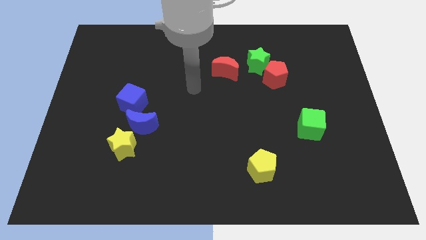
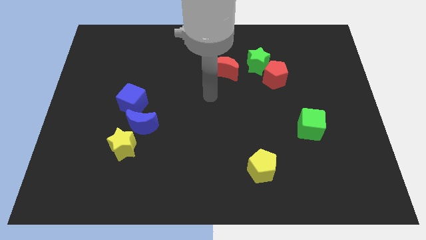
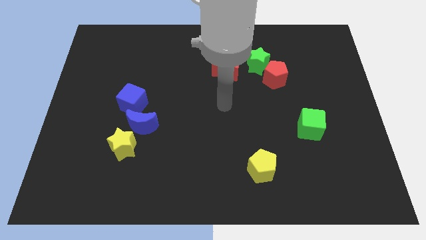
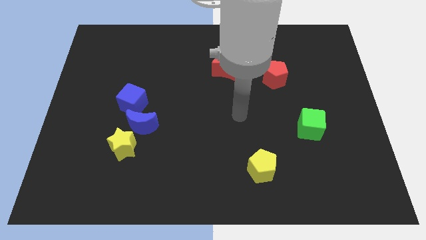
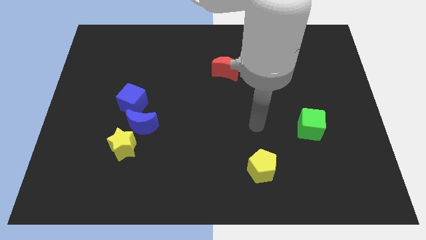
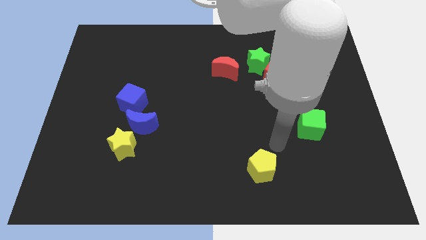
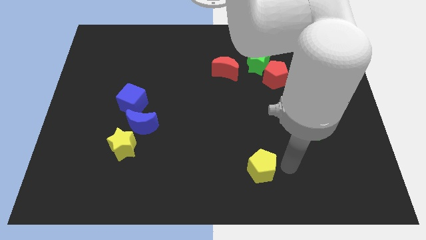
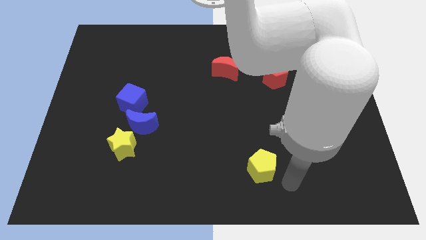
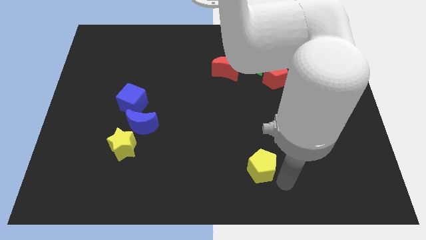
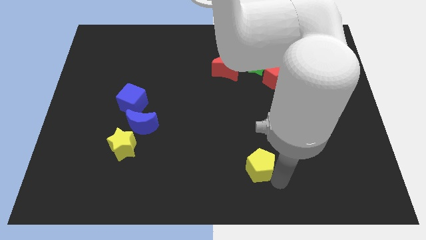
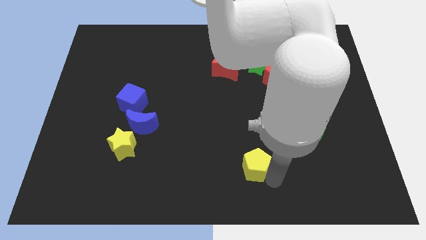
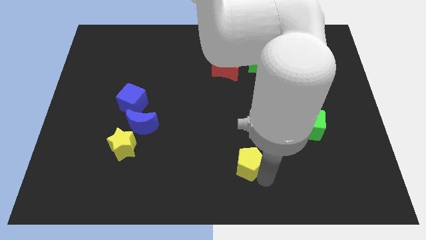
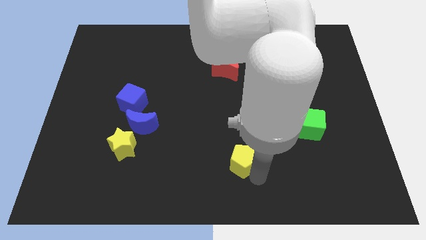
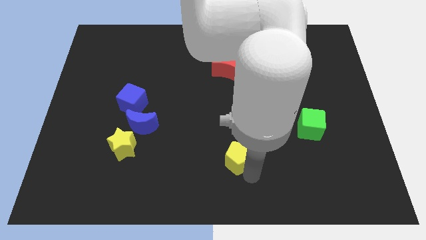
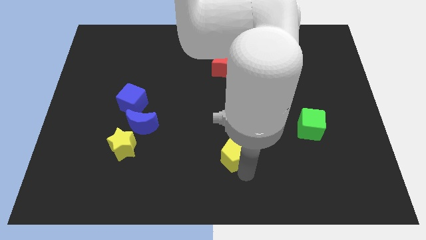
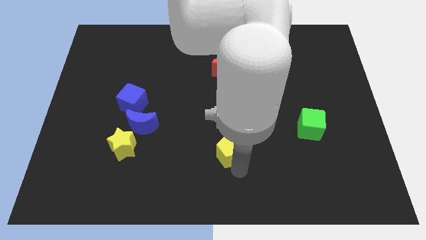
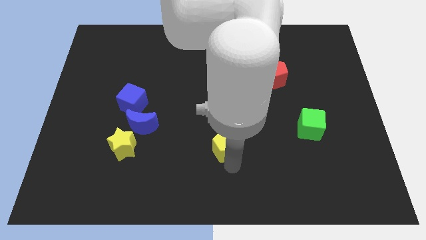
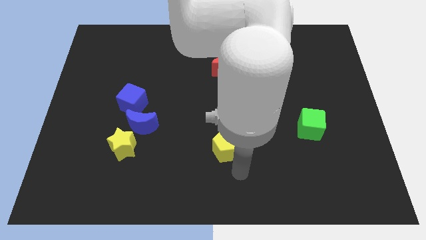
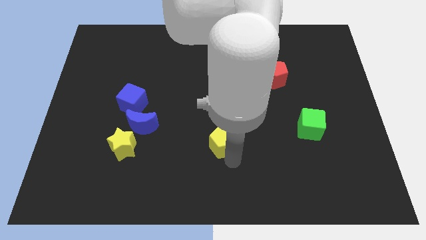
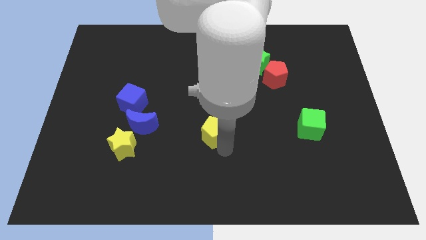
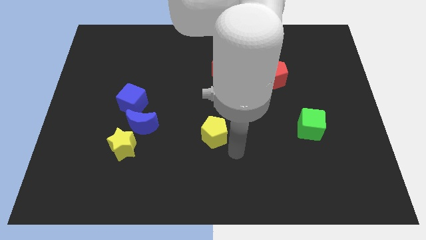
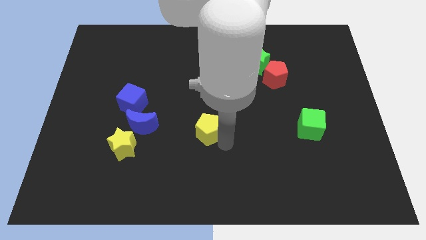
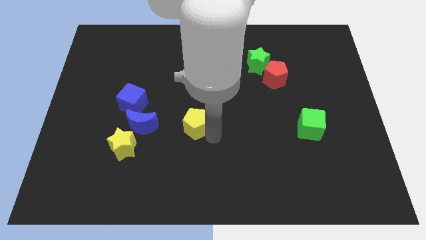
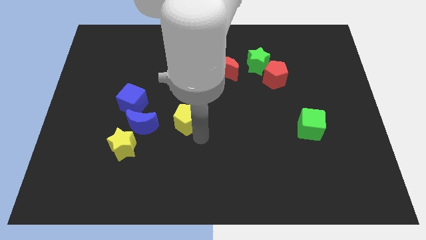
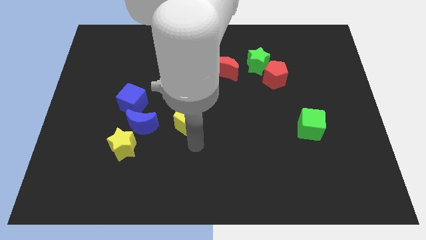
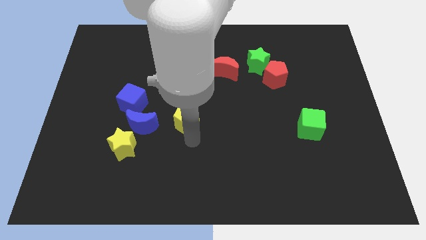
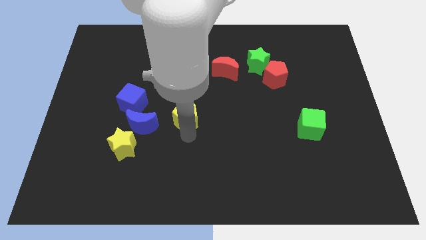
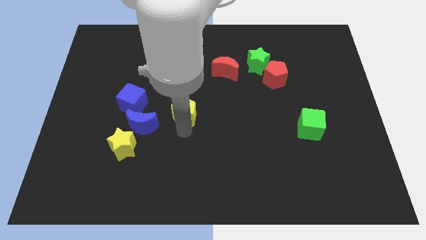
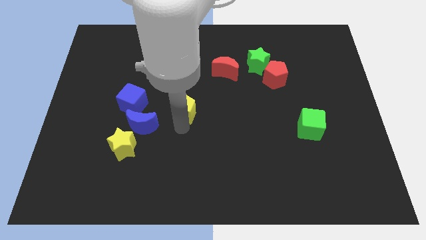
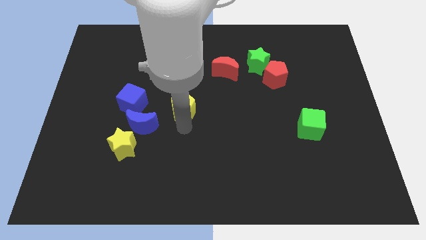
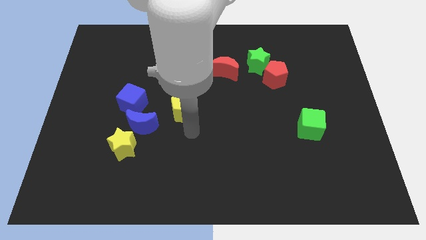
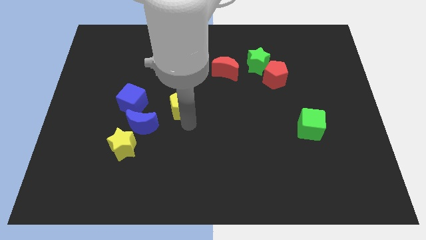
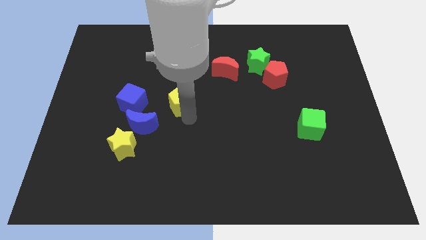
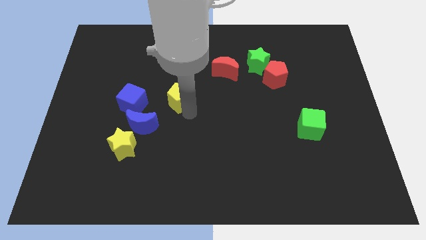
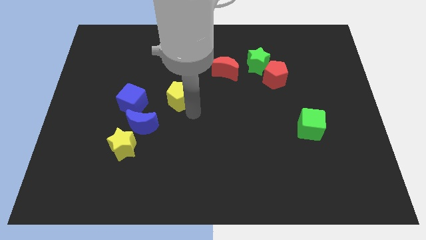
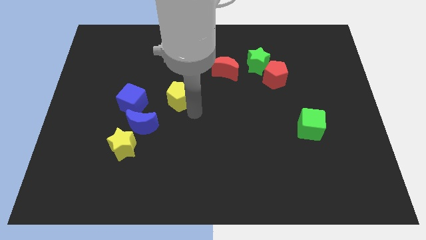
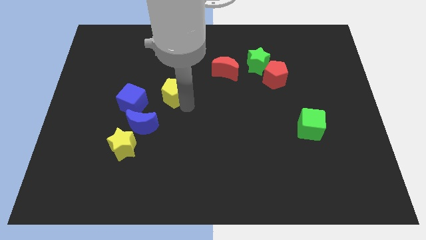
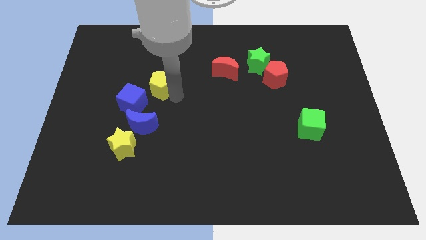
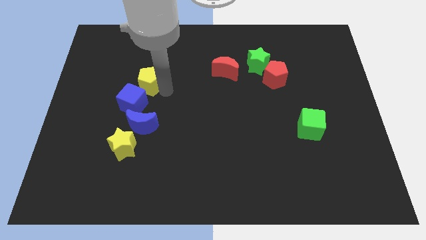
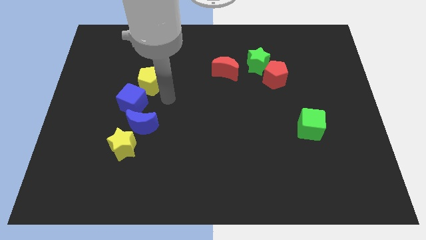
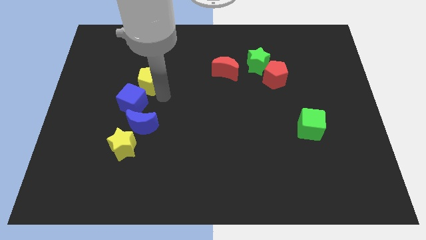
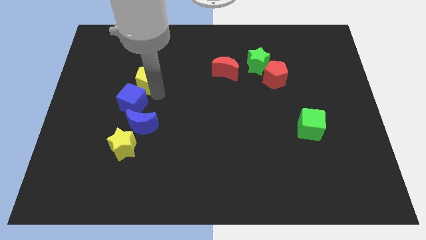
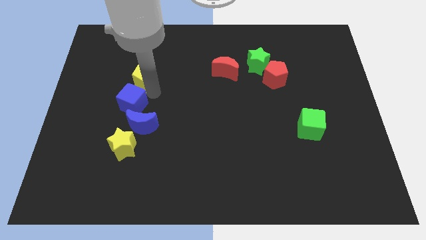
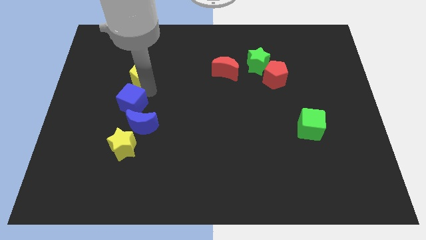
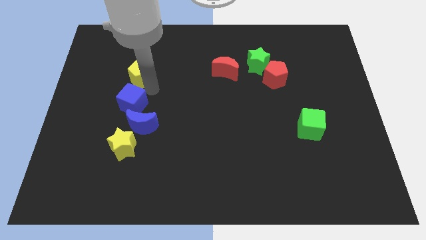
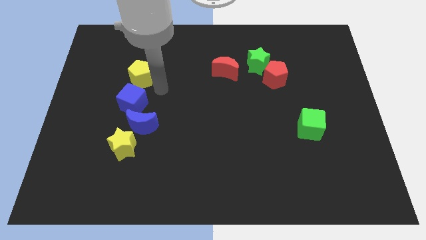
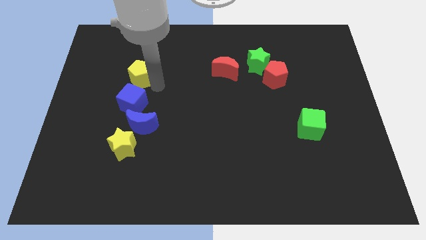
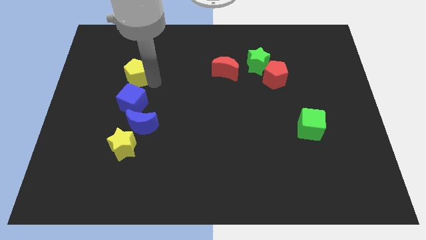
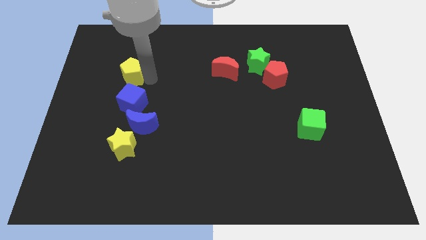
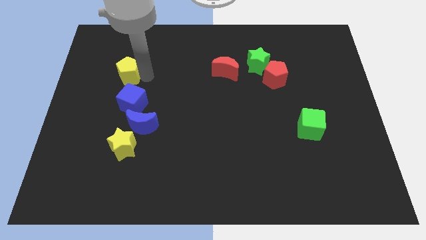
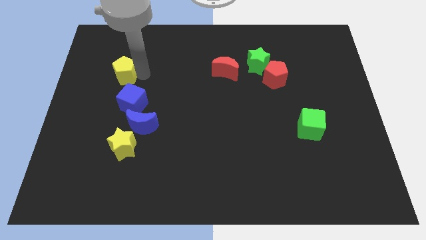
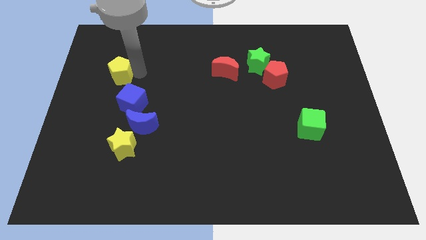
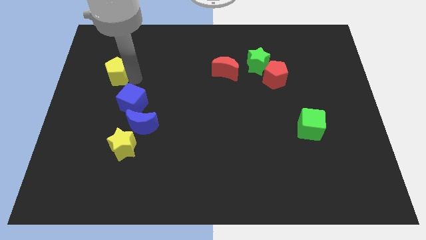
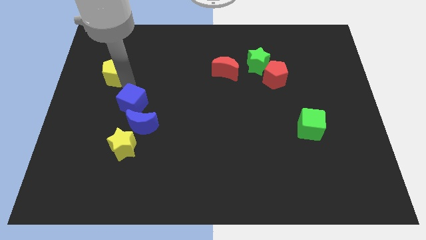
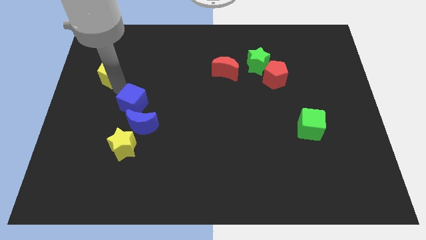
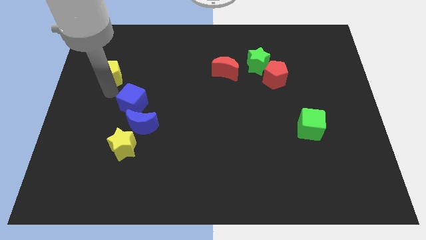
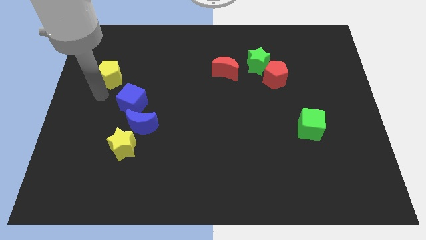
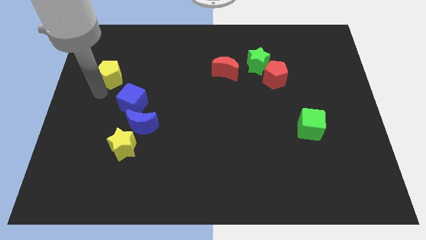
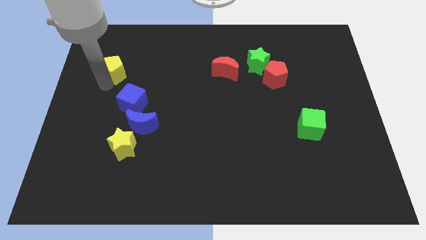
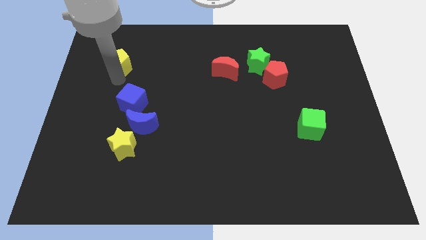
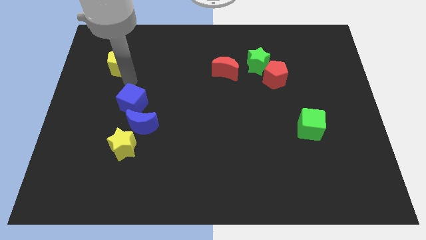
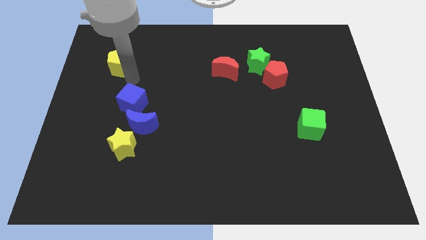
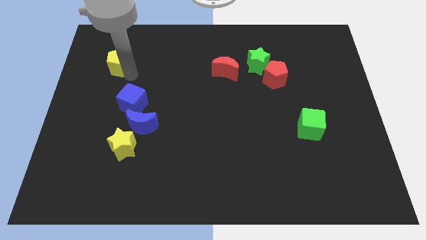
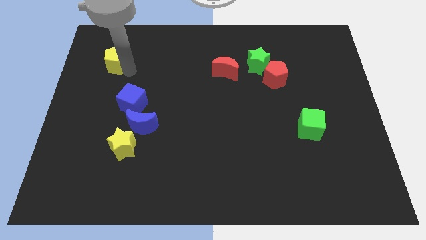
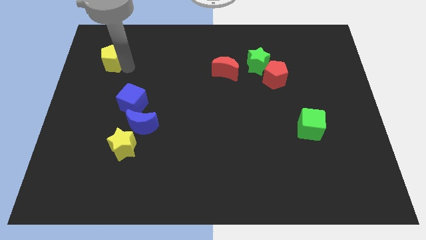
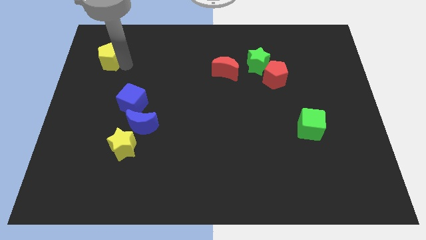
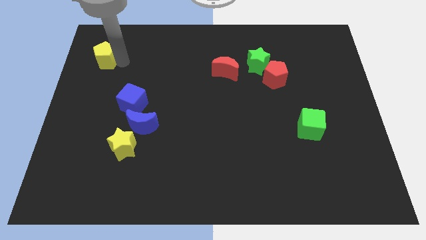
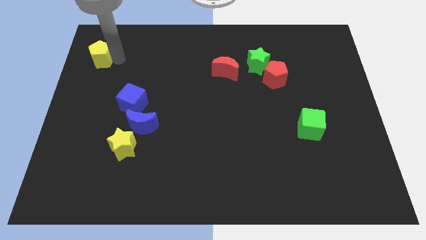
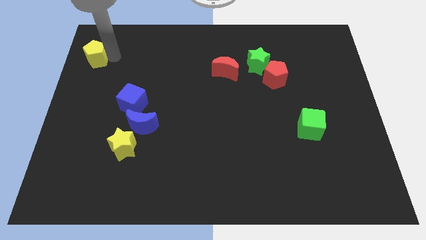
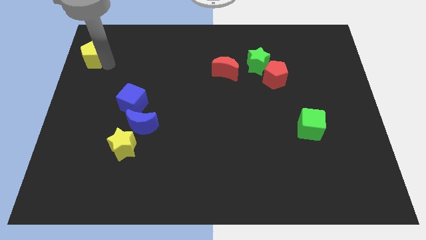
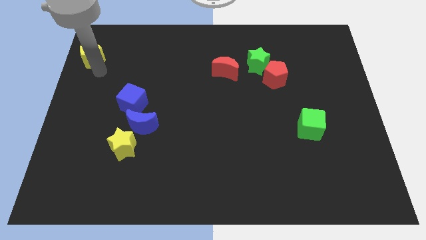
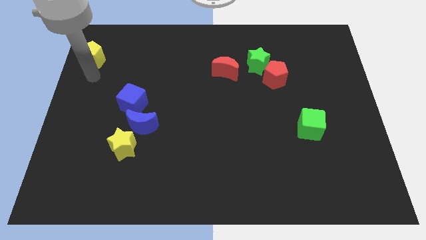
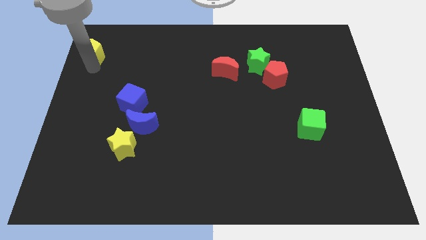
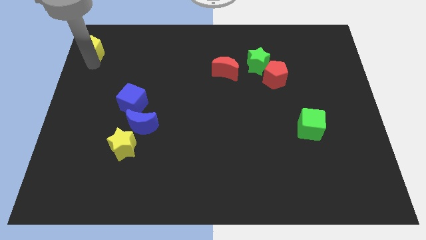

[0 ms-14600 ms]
move the yellow pentagon to the top left corner
